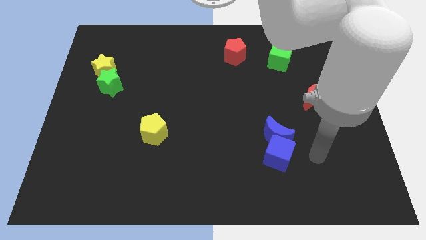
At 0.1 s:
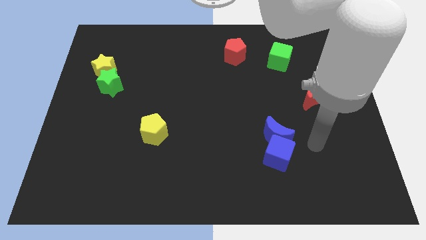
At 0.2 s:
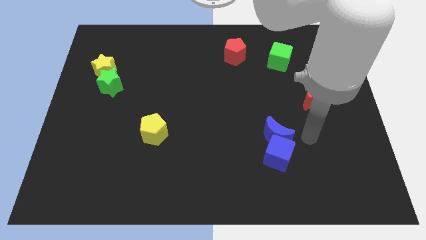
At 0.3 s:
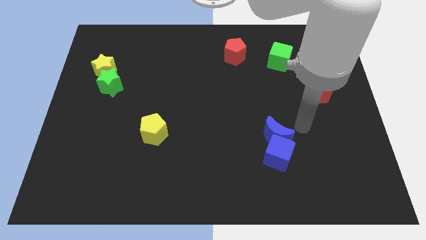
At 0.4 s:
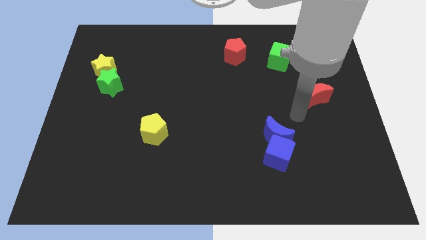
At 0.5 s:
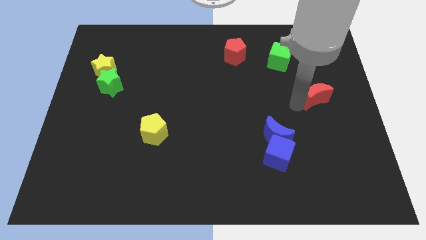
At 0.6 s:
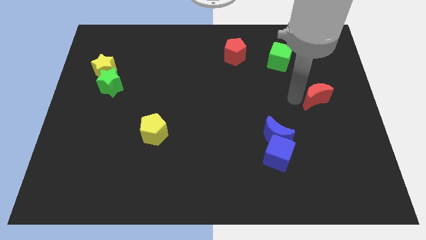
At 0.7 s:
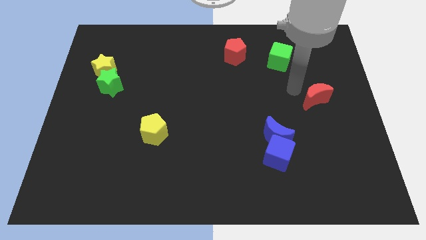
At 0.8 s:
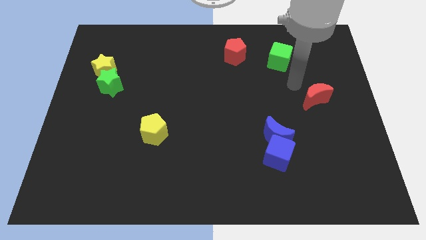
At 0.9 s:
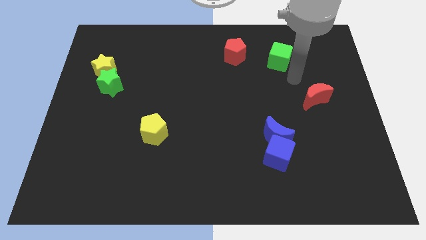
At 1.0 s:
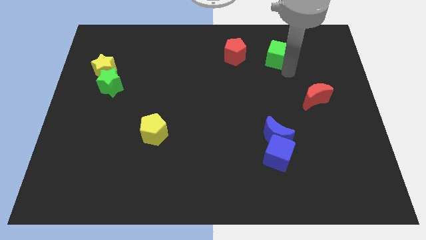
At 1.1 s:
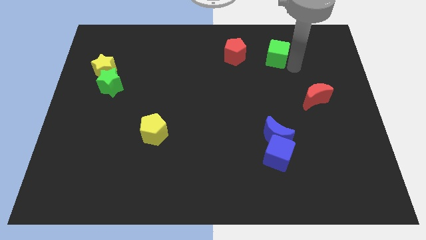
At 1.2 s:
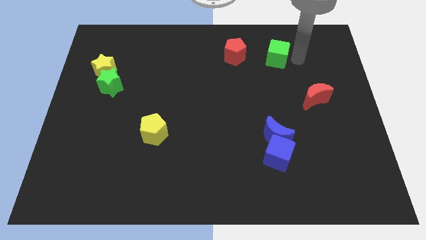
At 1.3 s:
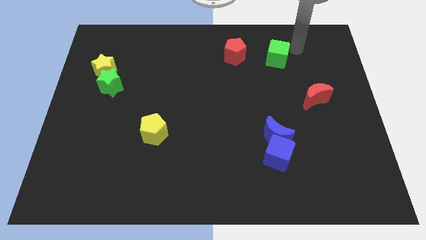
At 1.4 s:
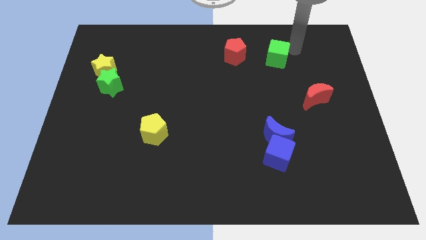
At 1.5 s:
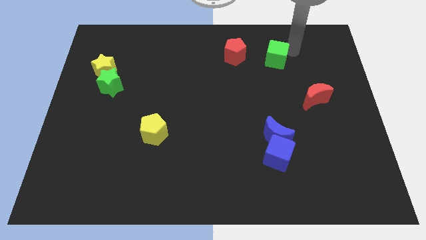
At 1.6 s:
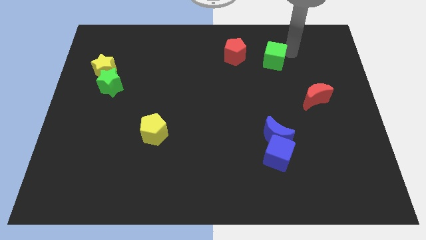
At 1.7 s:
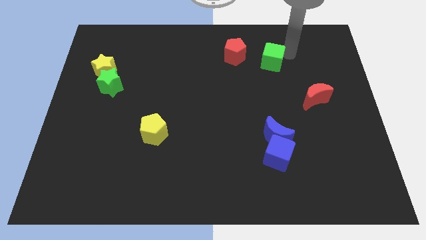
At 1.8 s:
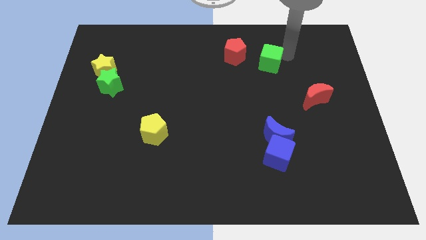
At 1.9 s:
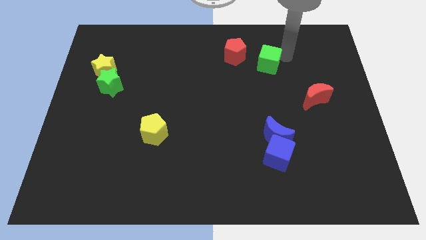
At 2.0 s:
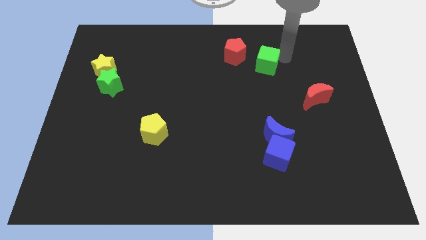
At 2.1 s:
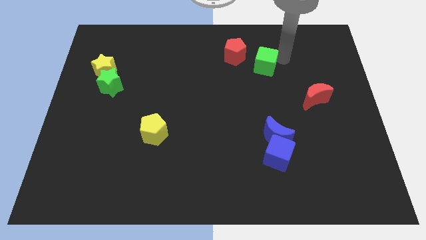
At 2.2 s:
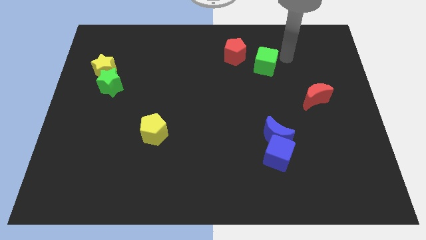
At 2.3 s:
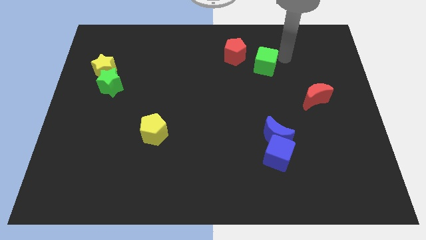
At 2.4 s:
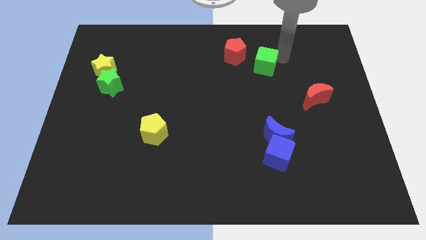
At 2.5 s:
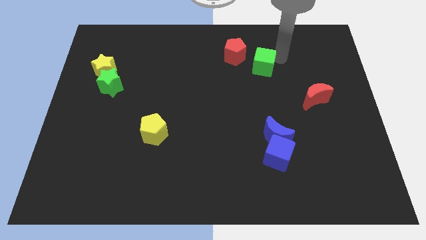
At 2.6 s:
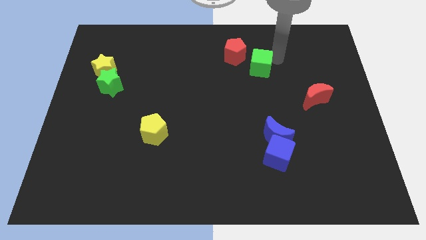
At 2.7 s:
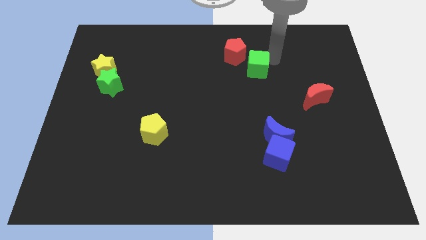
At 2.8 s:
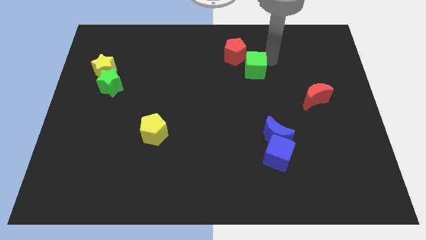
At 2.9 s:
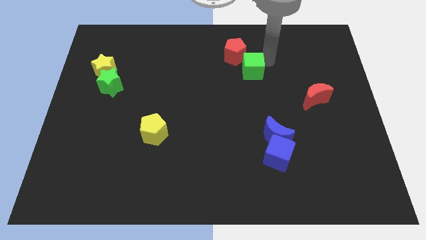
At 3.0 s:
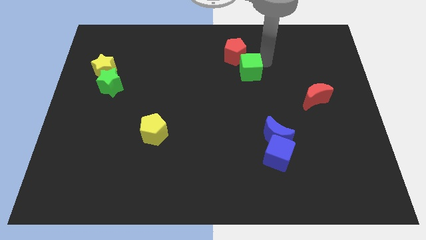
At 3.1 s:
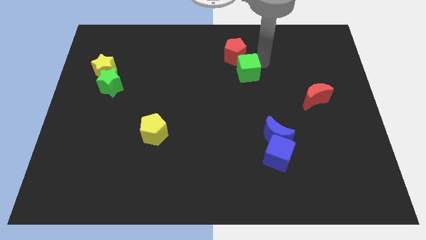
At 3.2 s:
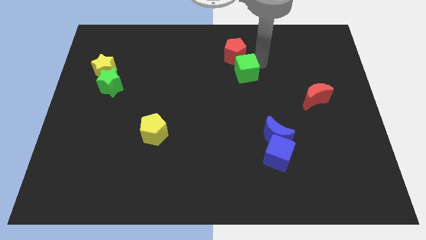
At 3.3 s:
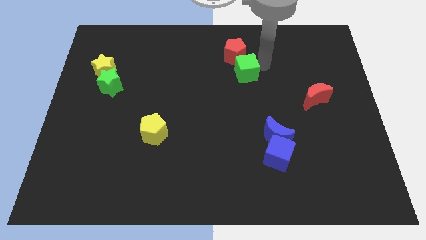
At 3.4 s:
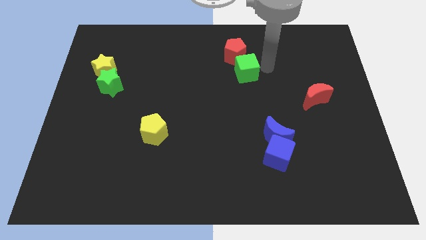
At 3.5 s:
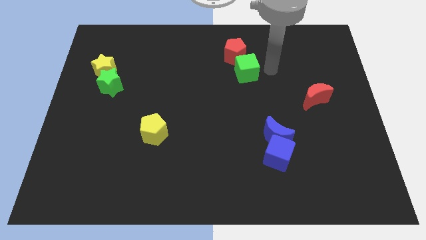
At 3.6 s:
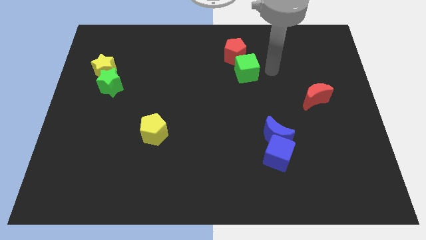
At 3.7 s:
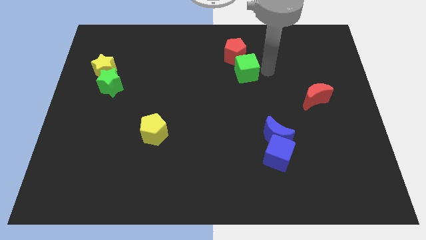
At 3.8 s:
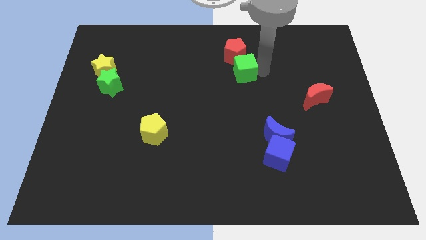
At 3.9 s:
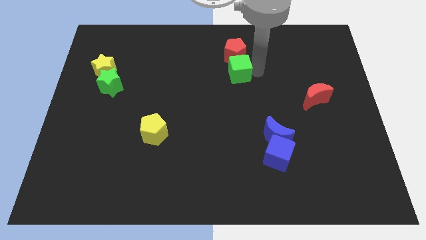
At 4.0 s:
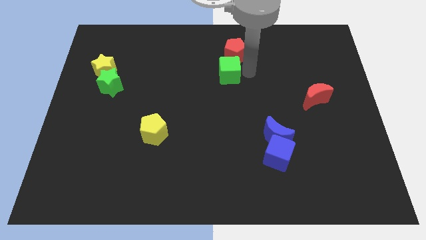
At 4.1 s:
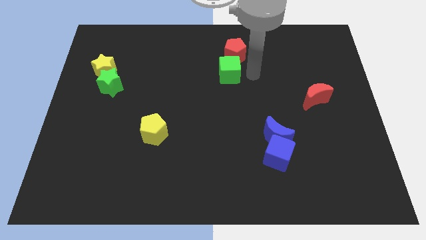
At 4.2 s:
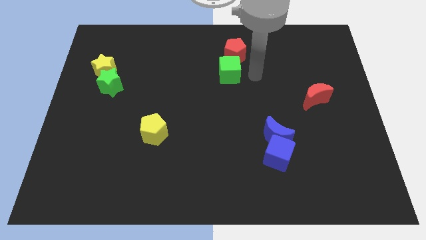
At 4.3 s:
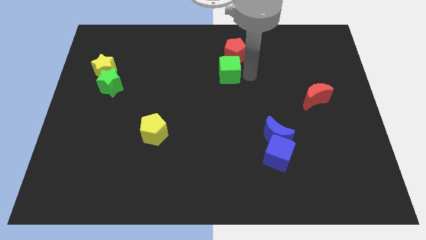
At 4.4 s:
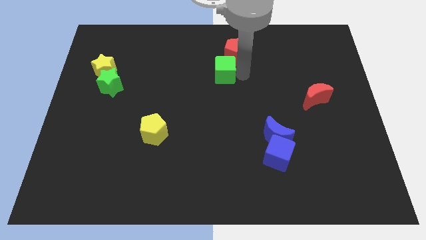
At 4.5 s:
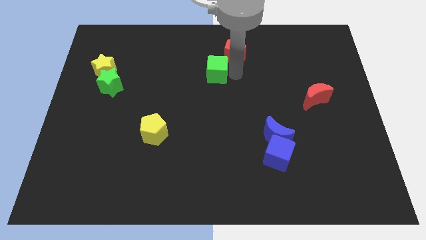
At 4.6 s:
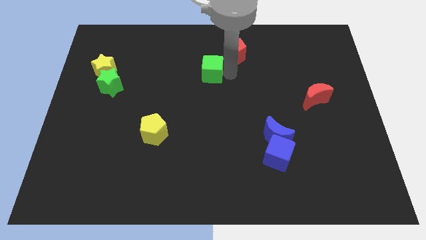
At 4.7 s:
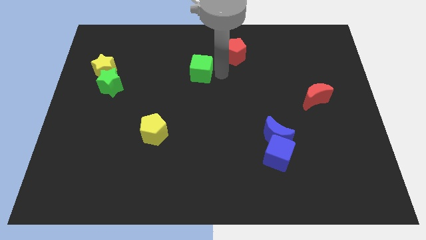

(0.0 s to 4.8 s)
push the green cube to the left

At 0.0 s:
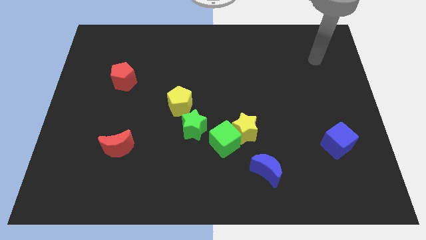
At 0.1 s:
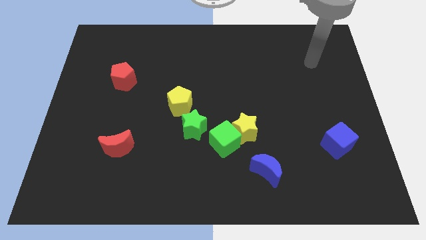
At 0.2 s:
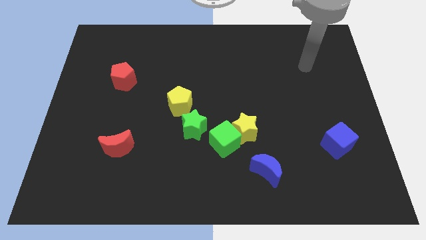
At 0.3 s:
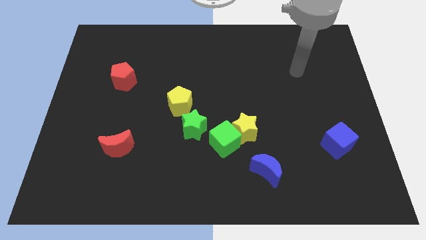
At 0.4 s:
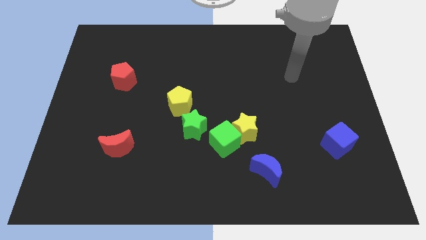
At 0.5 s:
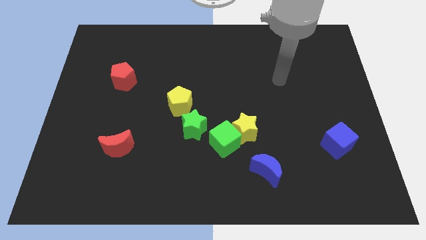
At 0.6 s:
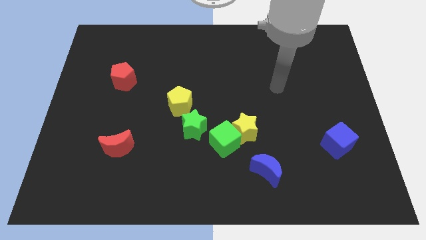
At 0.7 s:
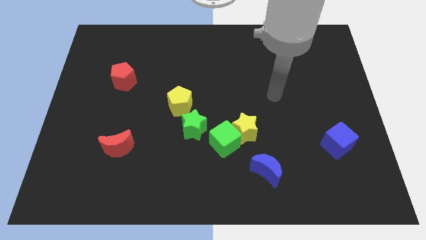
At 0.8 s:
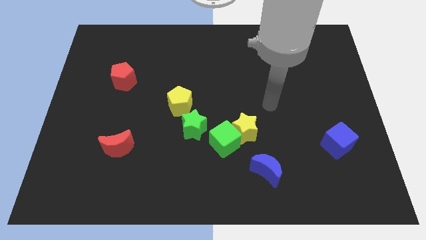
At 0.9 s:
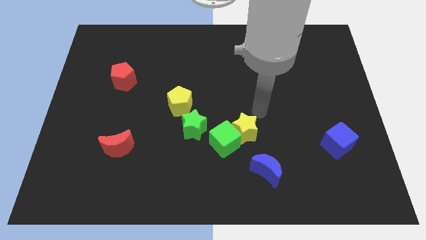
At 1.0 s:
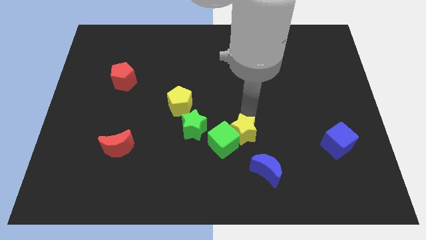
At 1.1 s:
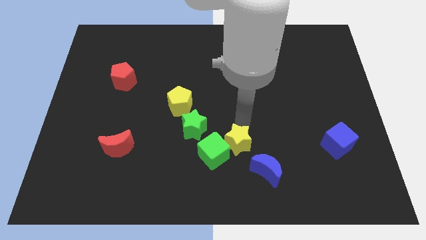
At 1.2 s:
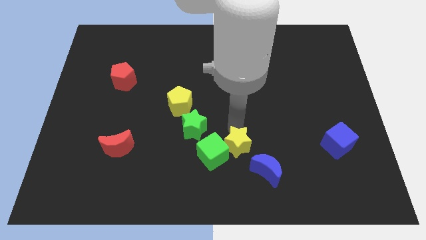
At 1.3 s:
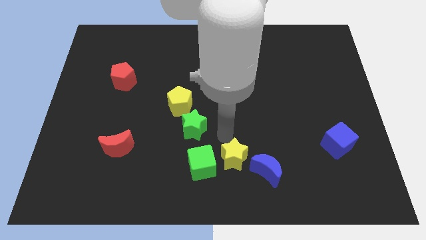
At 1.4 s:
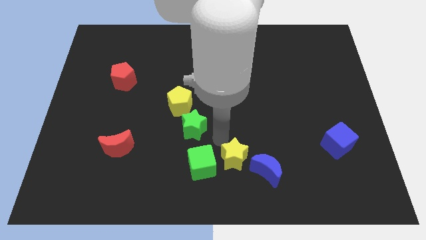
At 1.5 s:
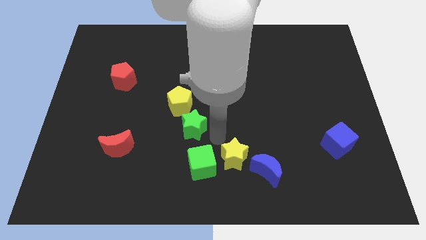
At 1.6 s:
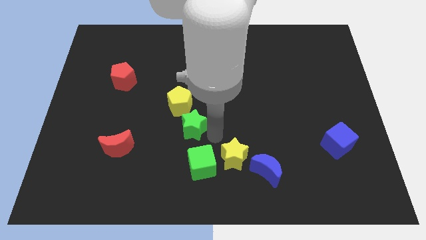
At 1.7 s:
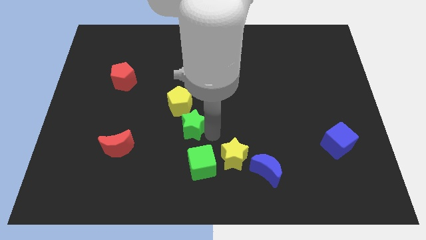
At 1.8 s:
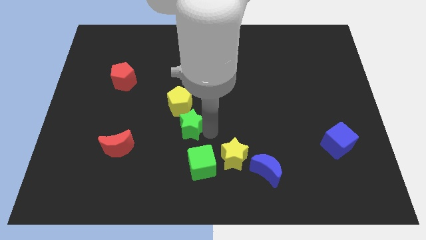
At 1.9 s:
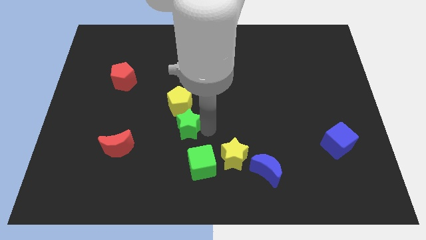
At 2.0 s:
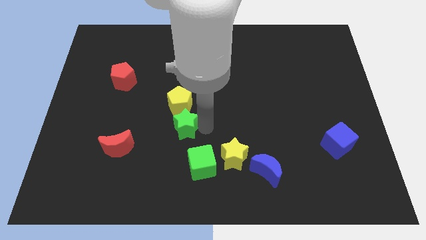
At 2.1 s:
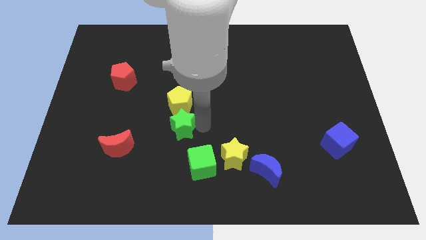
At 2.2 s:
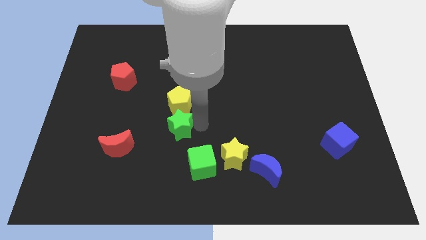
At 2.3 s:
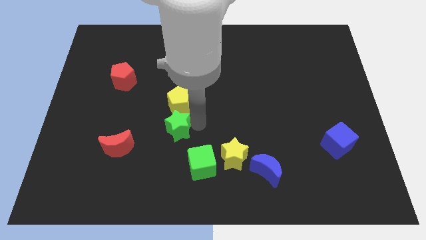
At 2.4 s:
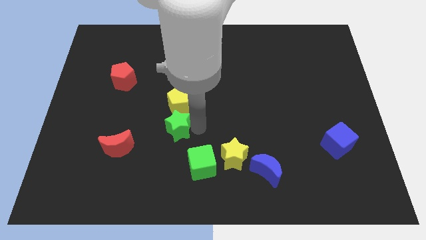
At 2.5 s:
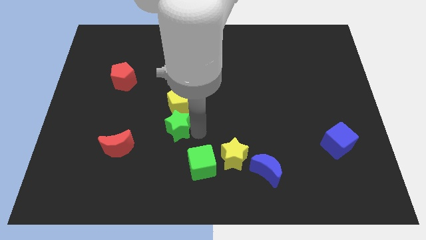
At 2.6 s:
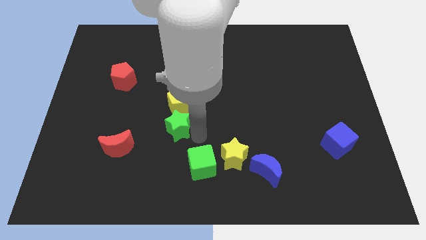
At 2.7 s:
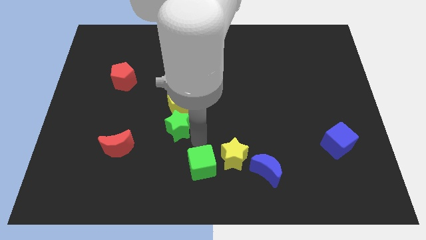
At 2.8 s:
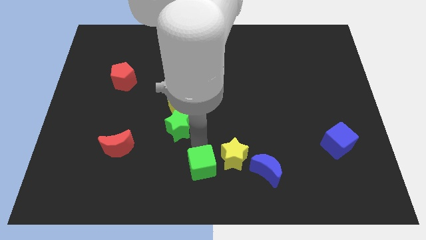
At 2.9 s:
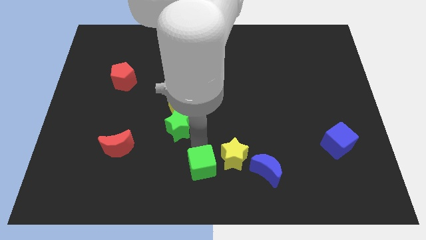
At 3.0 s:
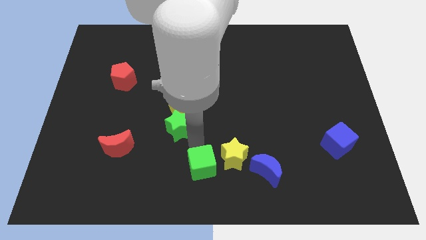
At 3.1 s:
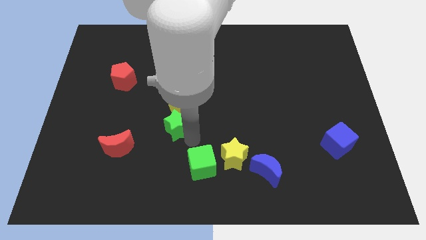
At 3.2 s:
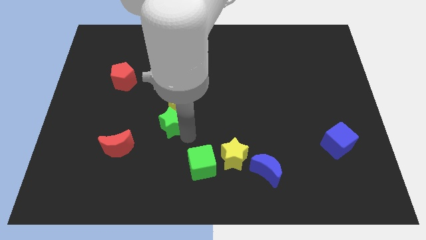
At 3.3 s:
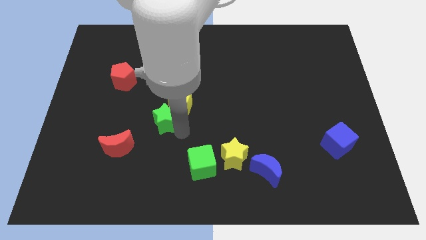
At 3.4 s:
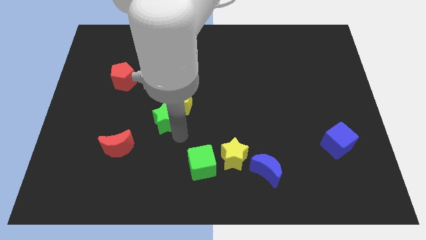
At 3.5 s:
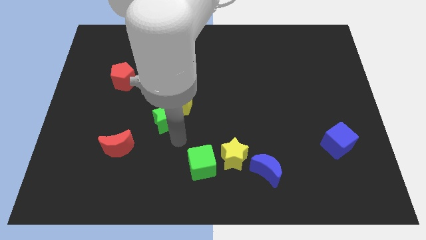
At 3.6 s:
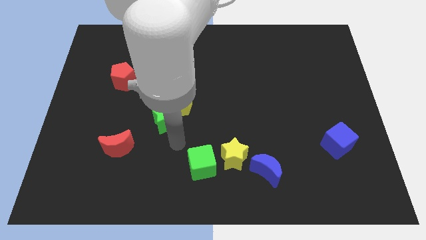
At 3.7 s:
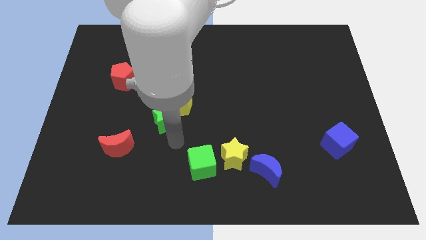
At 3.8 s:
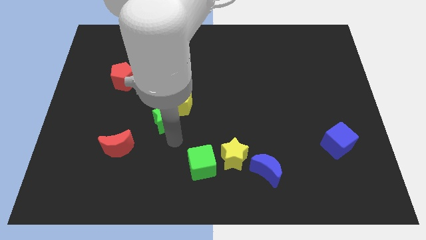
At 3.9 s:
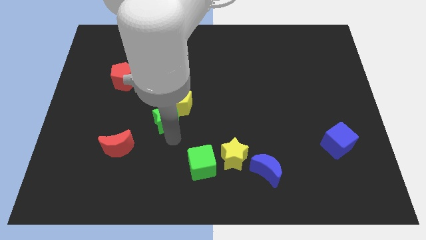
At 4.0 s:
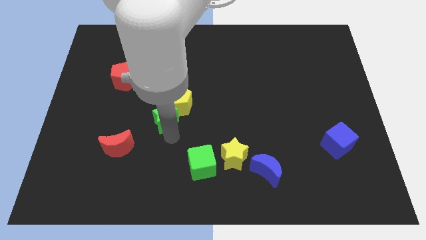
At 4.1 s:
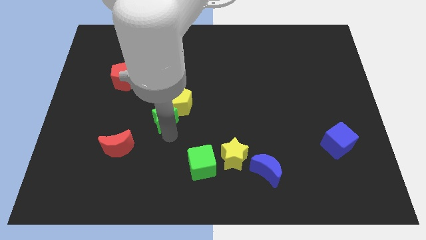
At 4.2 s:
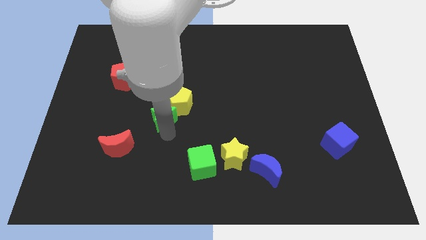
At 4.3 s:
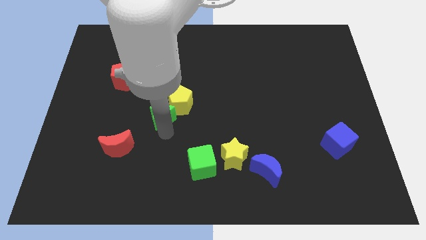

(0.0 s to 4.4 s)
slightly slide the green star upwards and to the left
